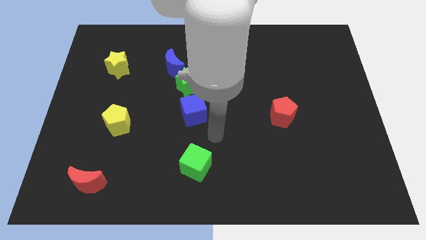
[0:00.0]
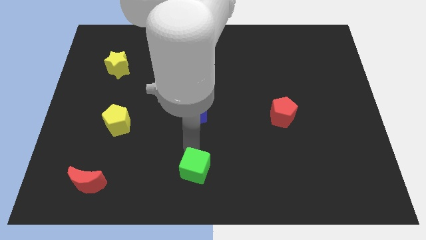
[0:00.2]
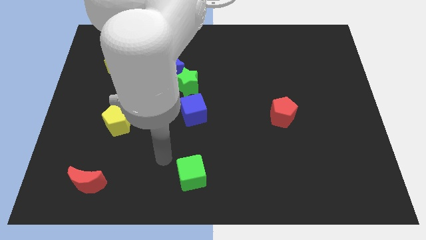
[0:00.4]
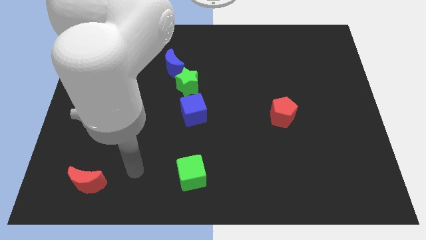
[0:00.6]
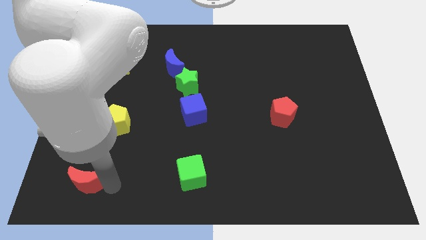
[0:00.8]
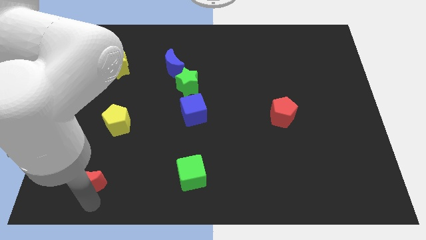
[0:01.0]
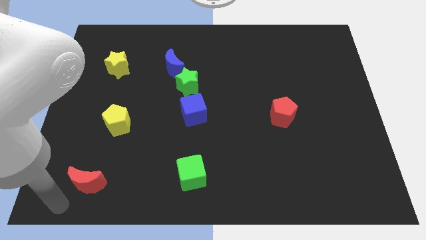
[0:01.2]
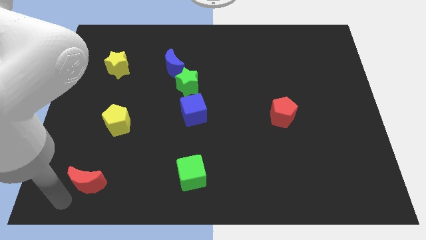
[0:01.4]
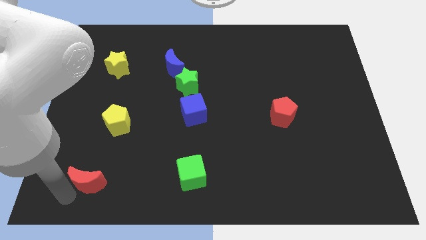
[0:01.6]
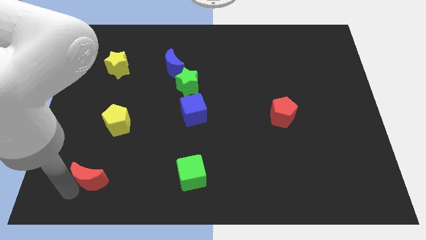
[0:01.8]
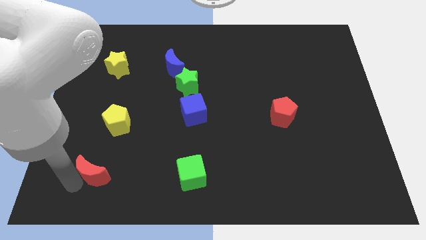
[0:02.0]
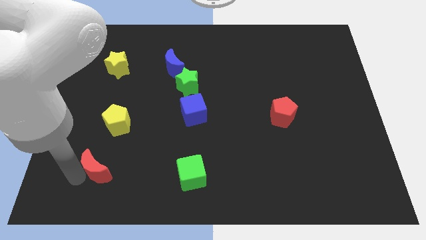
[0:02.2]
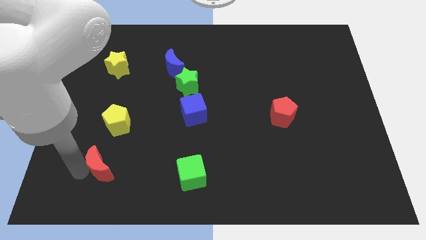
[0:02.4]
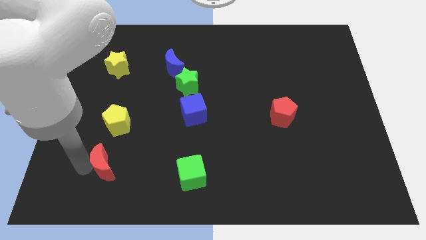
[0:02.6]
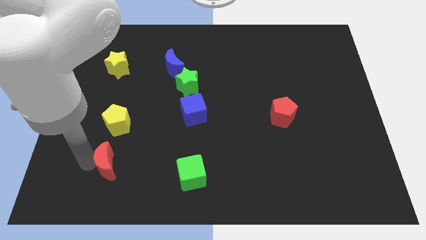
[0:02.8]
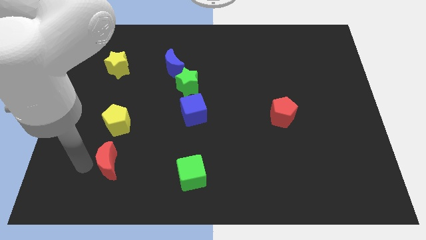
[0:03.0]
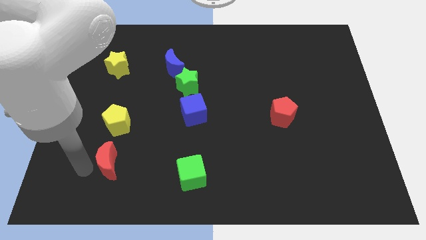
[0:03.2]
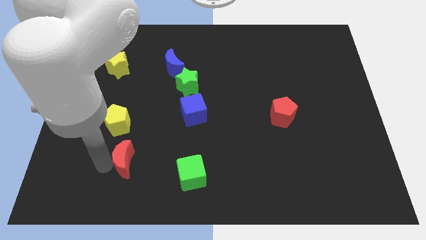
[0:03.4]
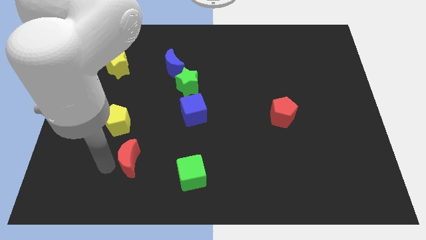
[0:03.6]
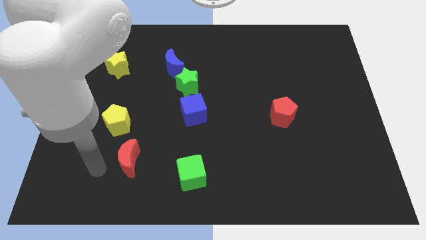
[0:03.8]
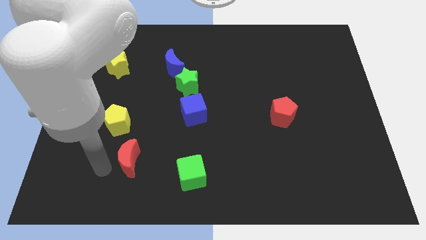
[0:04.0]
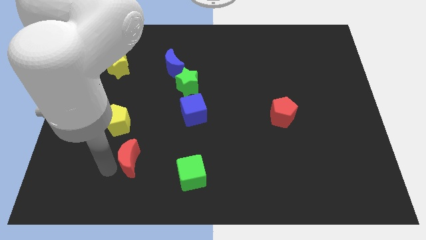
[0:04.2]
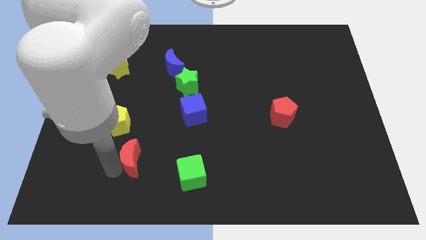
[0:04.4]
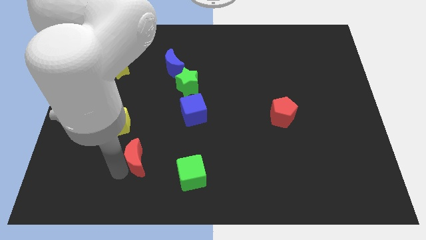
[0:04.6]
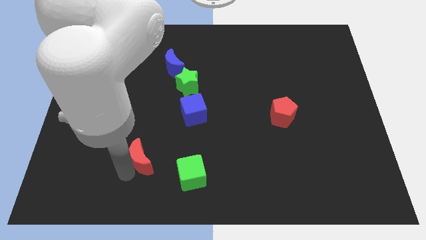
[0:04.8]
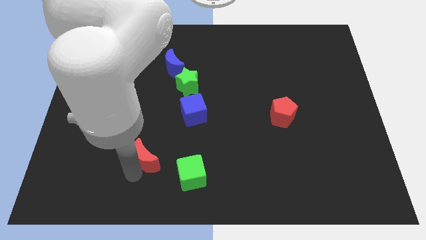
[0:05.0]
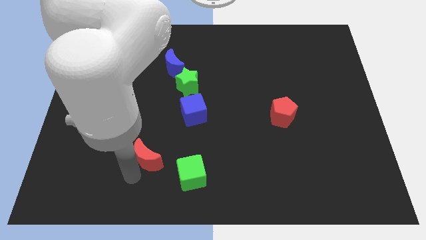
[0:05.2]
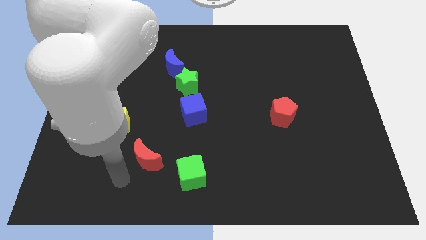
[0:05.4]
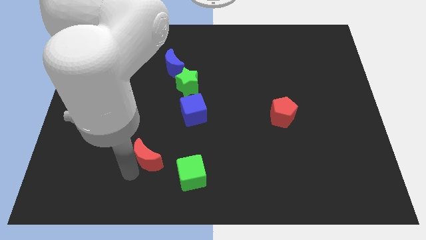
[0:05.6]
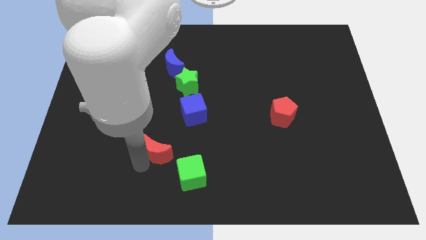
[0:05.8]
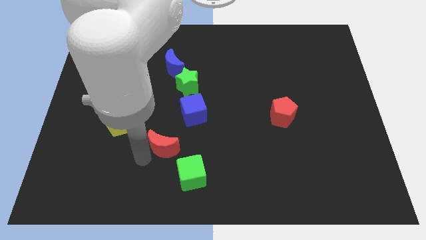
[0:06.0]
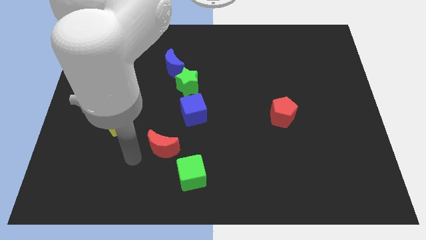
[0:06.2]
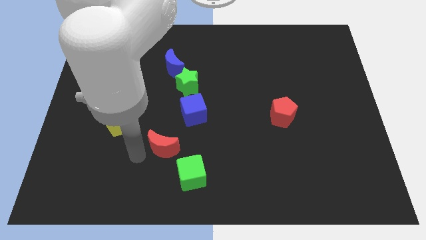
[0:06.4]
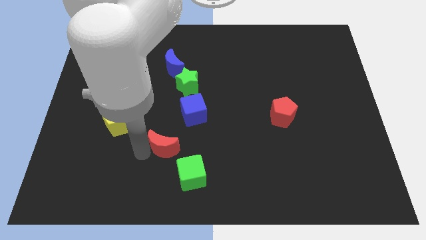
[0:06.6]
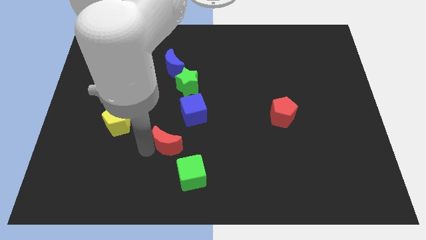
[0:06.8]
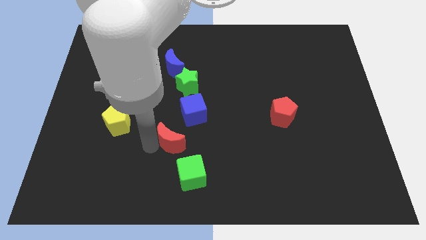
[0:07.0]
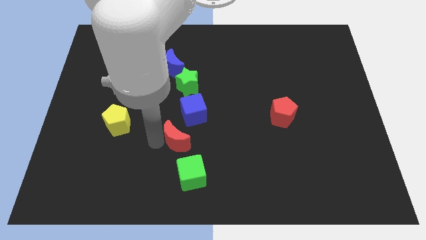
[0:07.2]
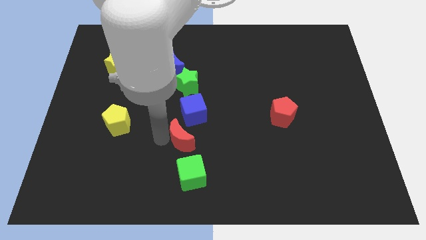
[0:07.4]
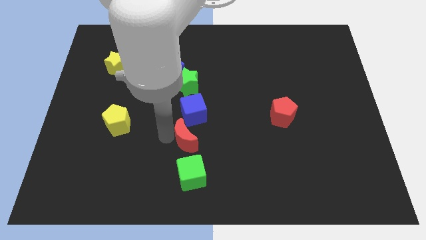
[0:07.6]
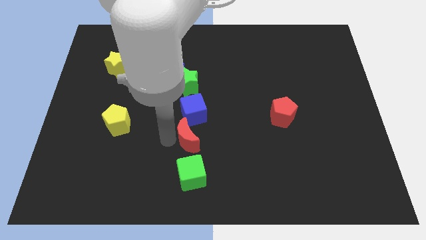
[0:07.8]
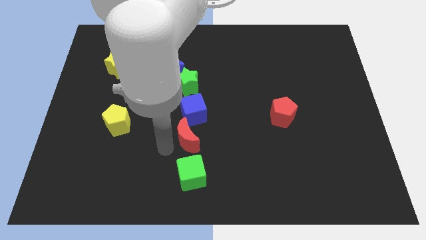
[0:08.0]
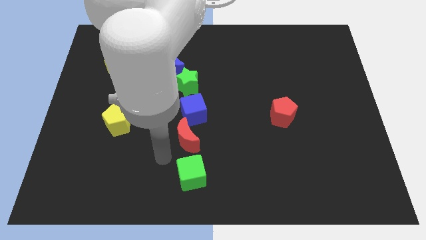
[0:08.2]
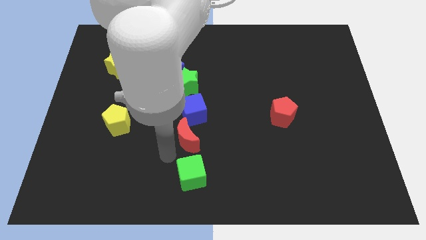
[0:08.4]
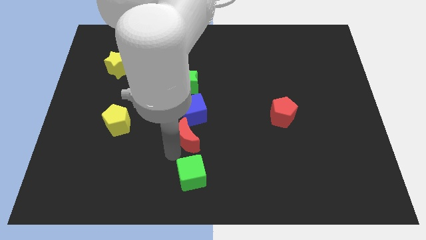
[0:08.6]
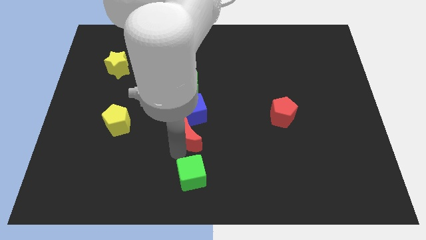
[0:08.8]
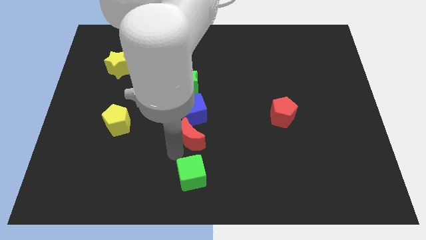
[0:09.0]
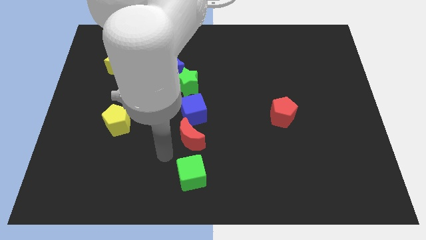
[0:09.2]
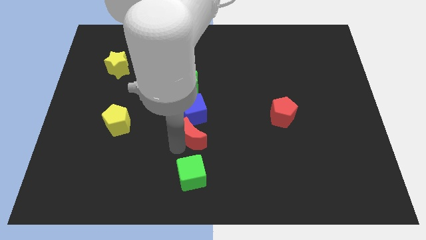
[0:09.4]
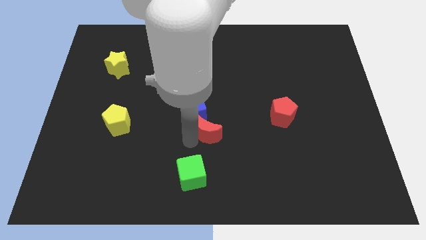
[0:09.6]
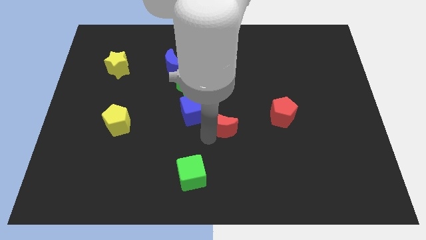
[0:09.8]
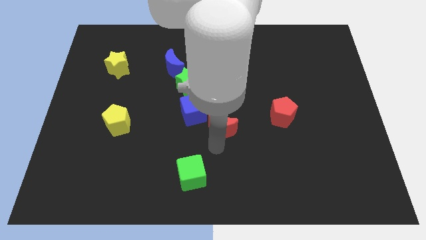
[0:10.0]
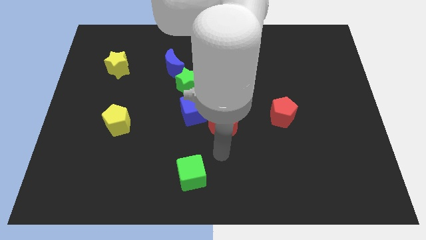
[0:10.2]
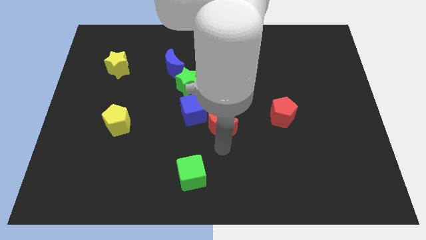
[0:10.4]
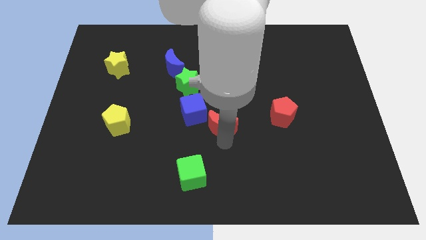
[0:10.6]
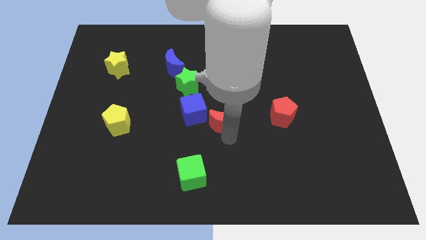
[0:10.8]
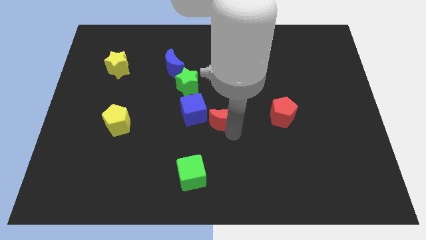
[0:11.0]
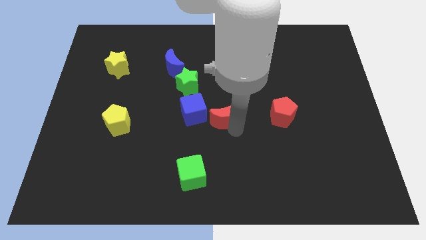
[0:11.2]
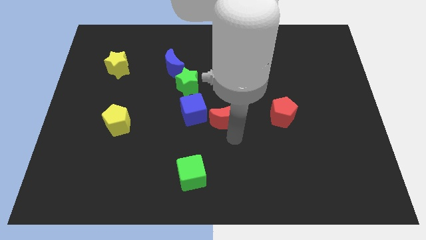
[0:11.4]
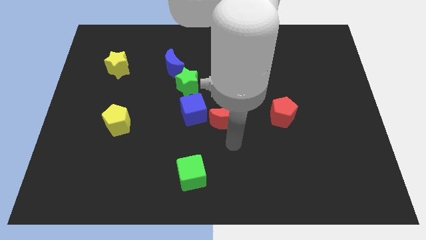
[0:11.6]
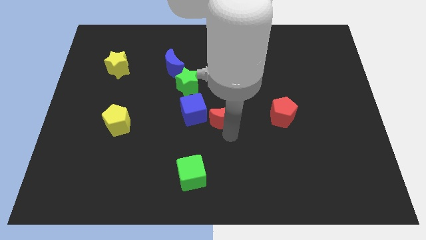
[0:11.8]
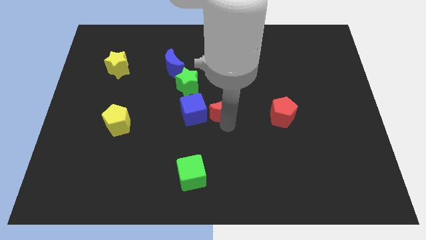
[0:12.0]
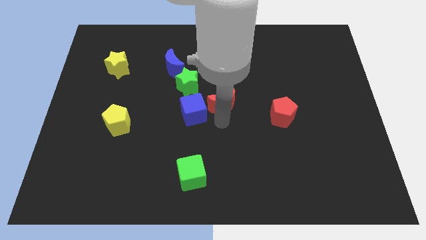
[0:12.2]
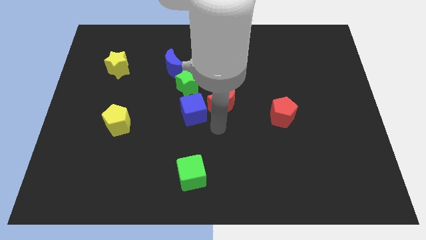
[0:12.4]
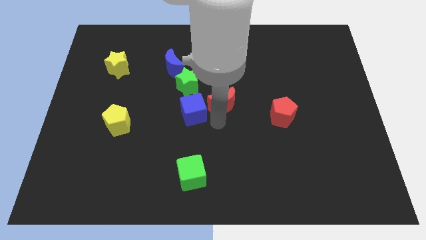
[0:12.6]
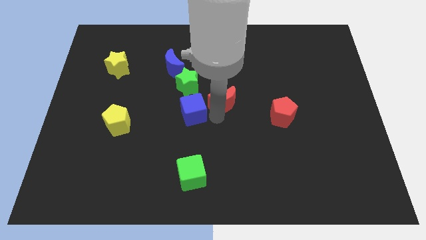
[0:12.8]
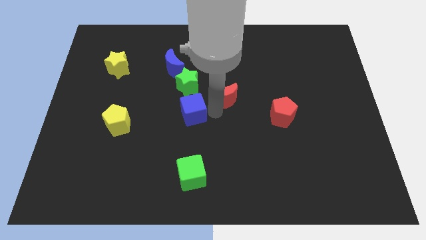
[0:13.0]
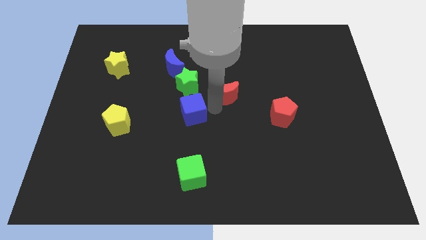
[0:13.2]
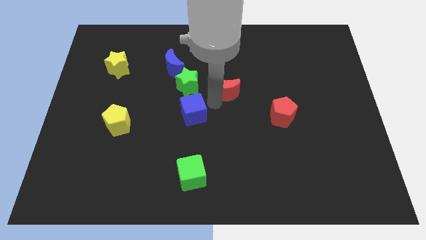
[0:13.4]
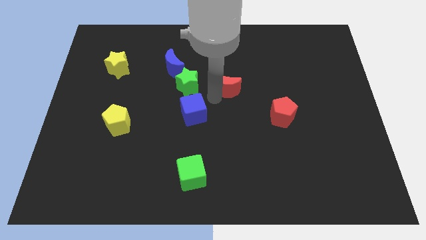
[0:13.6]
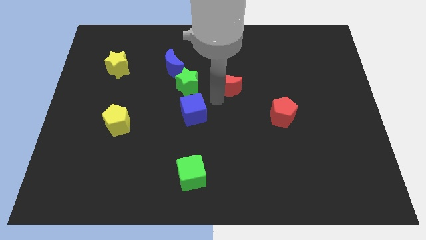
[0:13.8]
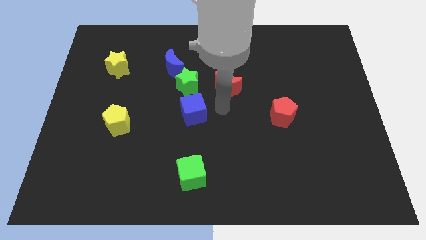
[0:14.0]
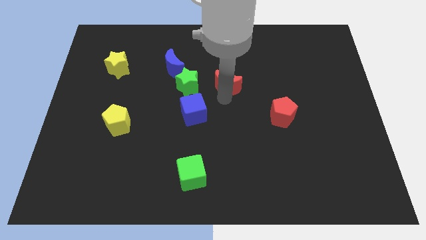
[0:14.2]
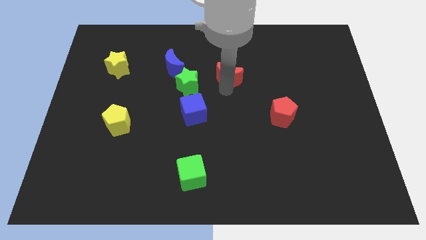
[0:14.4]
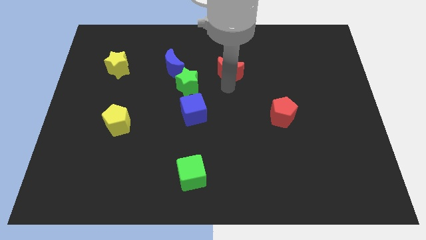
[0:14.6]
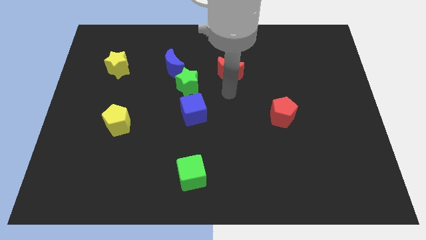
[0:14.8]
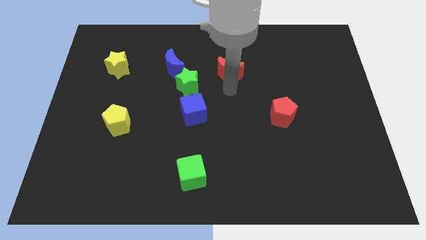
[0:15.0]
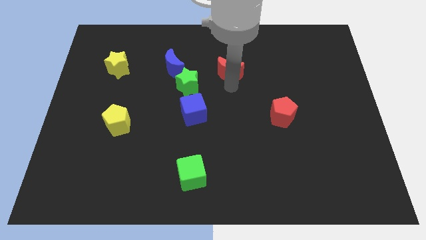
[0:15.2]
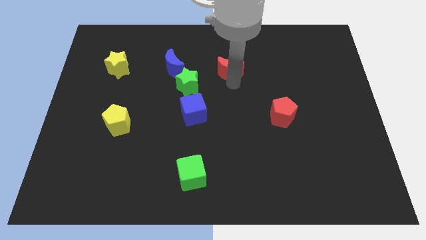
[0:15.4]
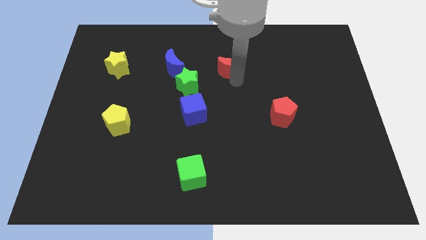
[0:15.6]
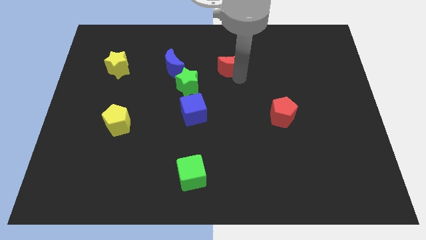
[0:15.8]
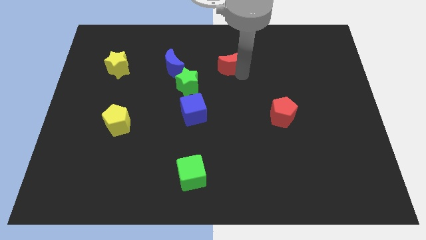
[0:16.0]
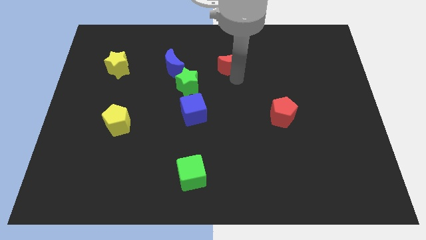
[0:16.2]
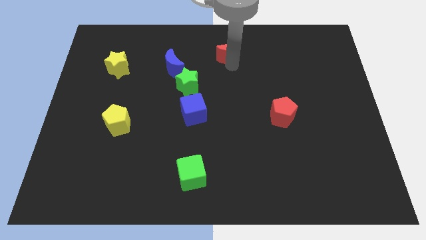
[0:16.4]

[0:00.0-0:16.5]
move the red moon to the top side
